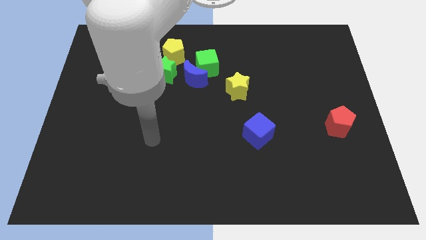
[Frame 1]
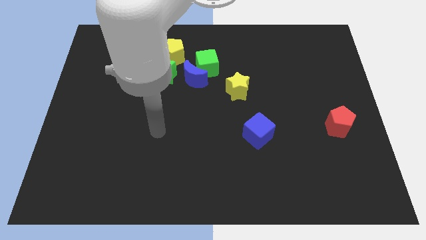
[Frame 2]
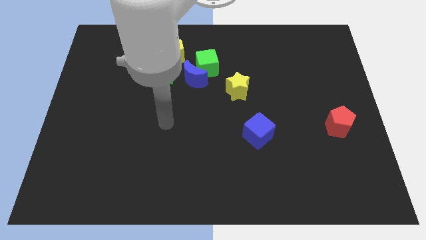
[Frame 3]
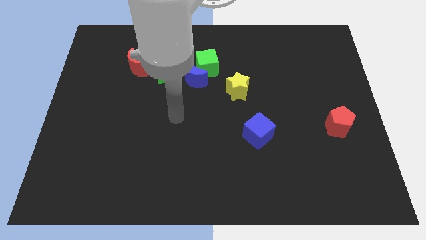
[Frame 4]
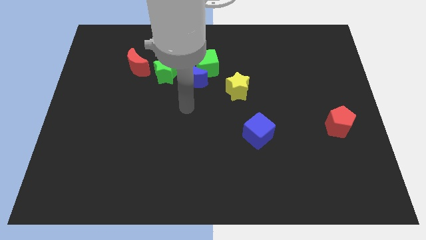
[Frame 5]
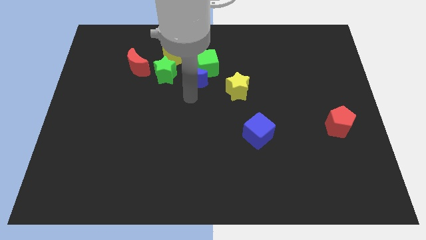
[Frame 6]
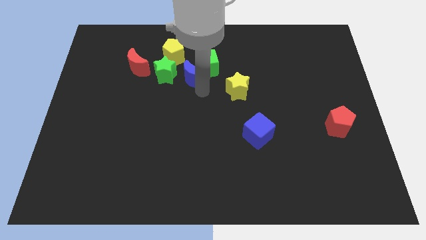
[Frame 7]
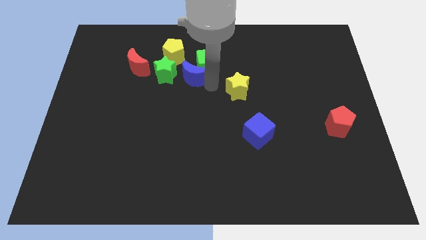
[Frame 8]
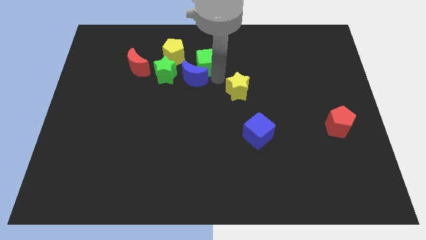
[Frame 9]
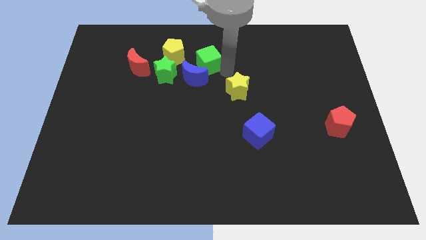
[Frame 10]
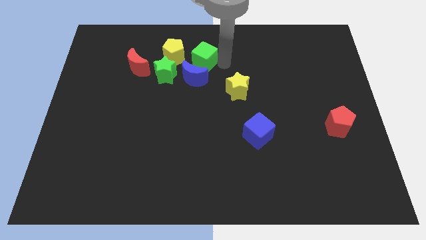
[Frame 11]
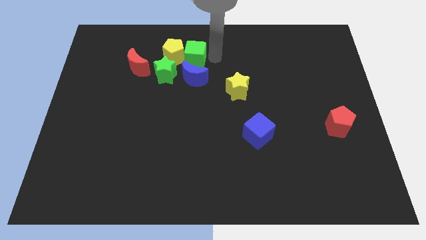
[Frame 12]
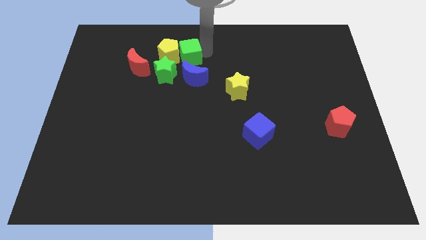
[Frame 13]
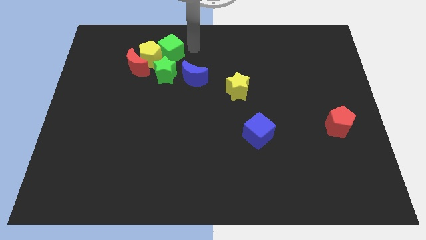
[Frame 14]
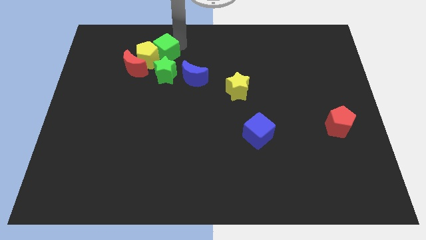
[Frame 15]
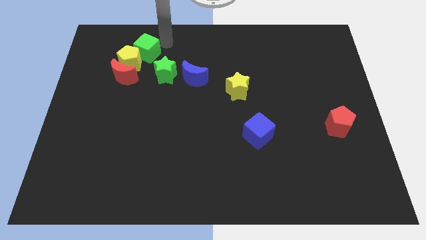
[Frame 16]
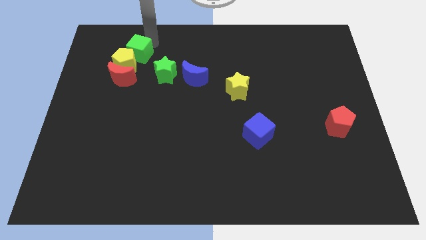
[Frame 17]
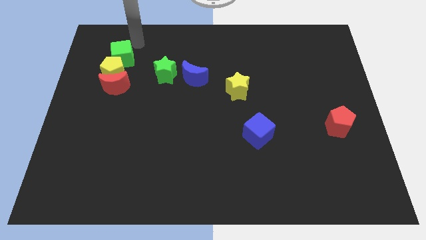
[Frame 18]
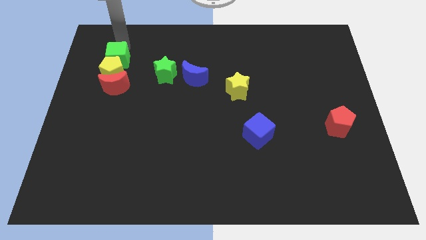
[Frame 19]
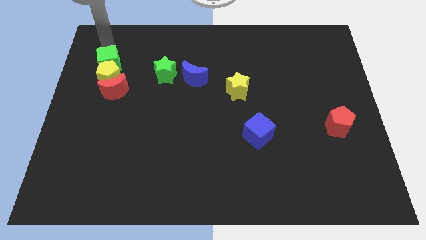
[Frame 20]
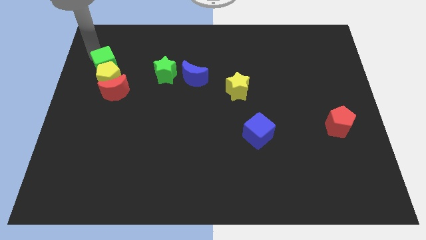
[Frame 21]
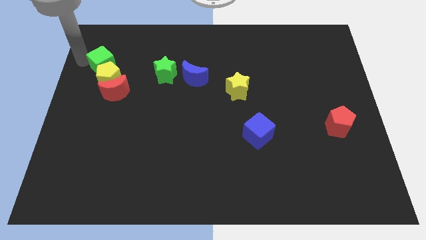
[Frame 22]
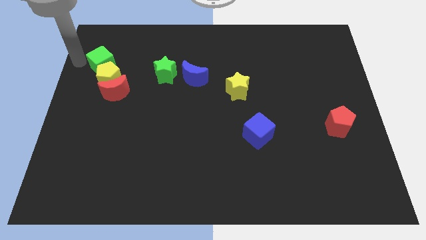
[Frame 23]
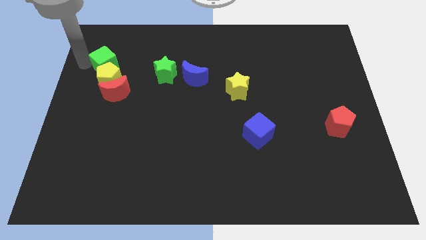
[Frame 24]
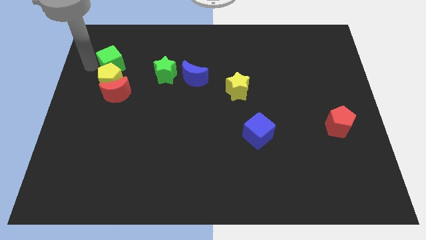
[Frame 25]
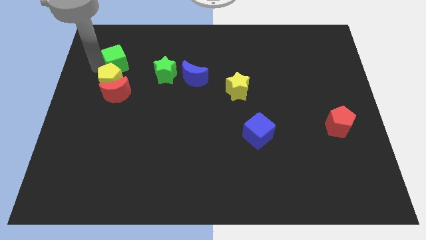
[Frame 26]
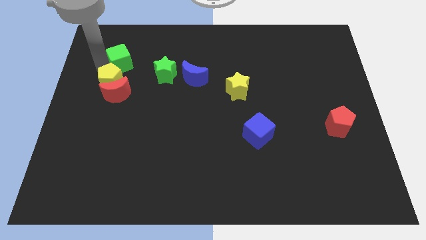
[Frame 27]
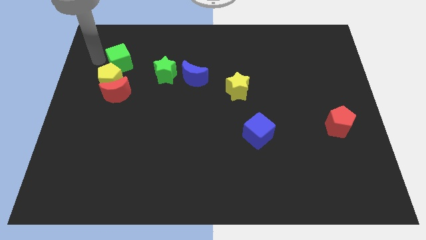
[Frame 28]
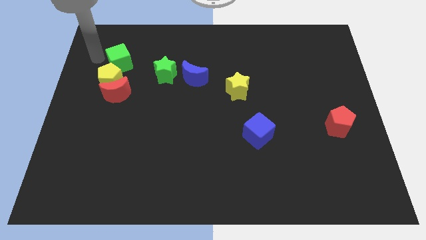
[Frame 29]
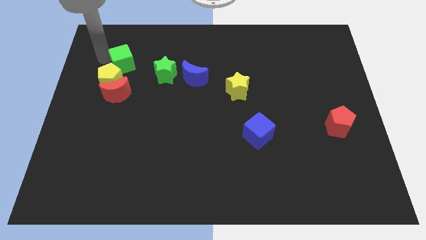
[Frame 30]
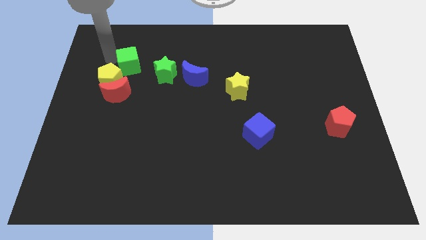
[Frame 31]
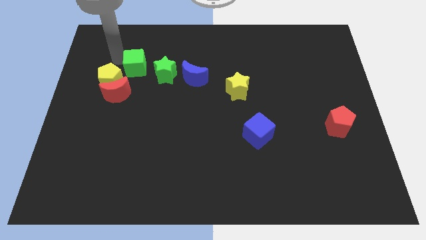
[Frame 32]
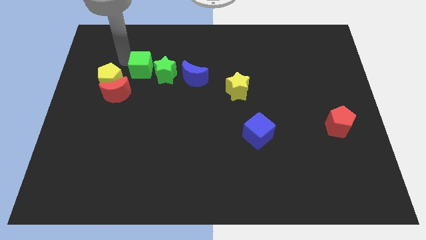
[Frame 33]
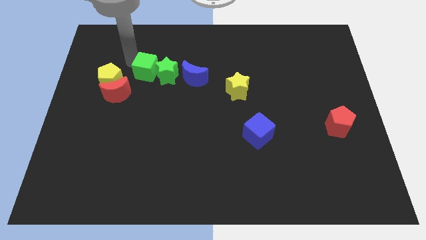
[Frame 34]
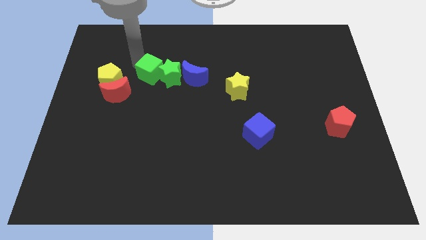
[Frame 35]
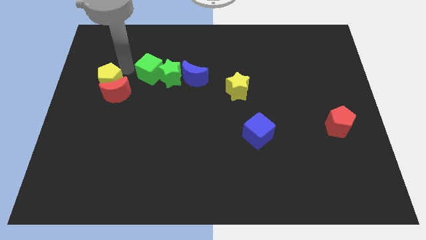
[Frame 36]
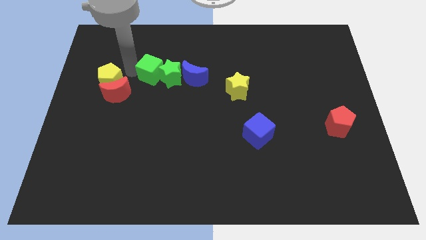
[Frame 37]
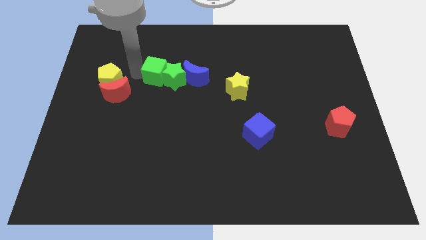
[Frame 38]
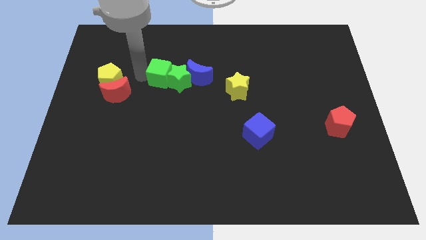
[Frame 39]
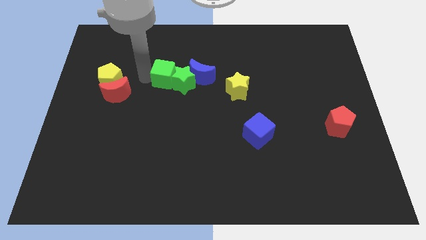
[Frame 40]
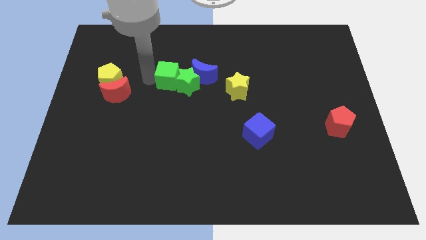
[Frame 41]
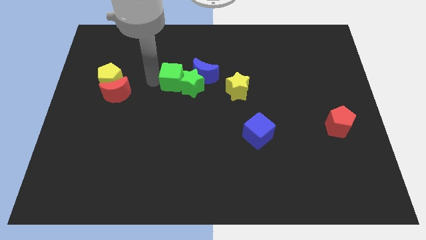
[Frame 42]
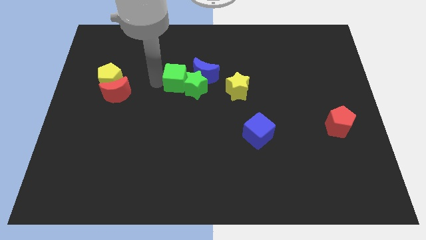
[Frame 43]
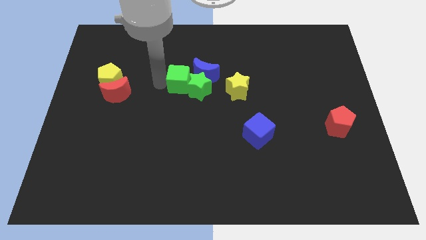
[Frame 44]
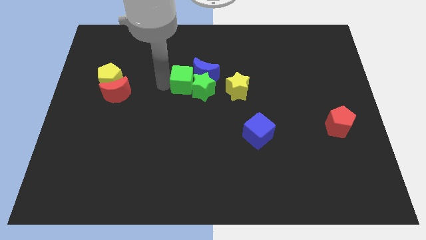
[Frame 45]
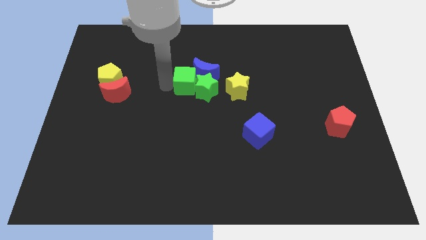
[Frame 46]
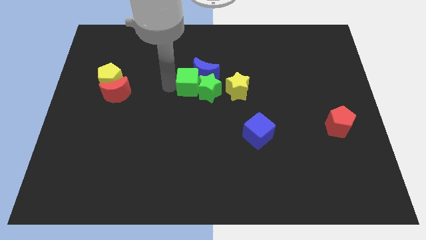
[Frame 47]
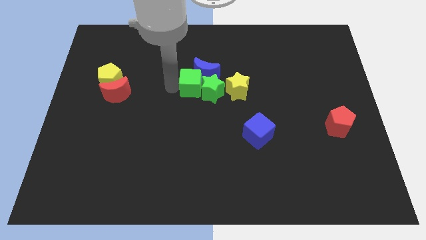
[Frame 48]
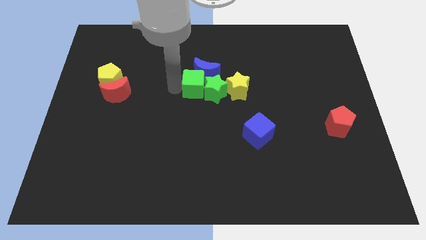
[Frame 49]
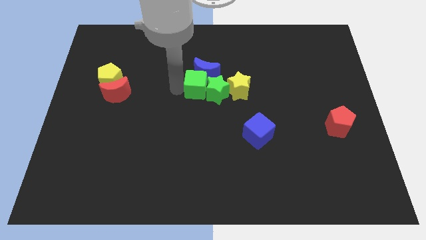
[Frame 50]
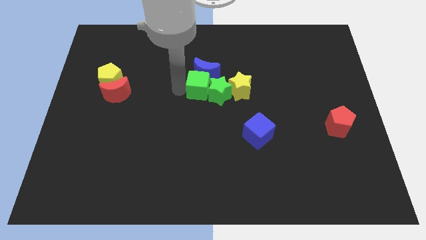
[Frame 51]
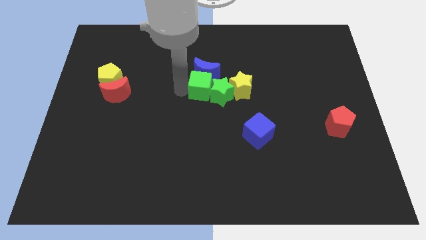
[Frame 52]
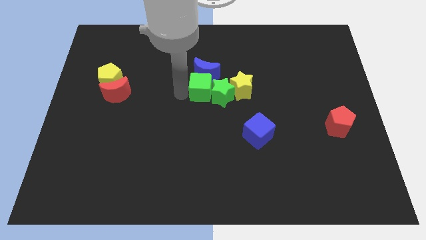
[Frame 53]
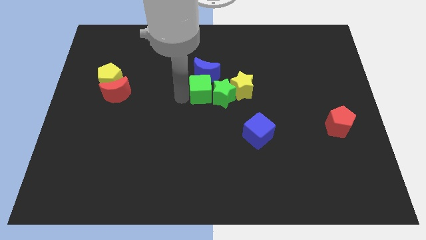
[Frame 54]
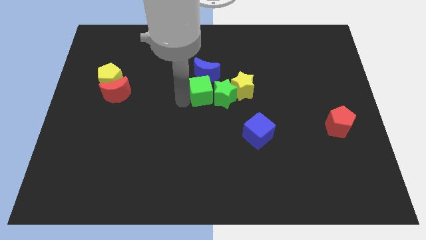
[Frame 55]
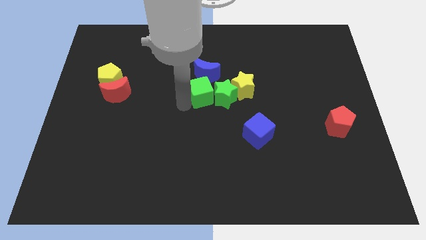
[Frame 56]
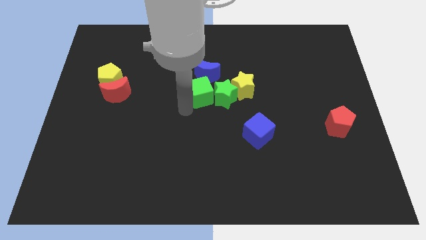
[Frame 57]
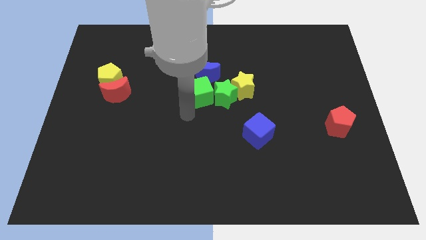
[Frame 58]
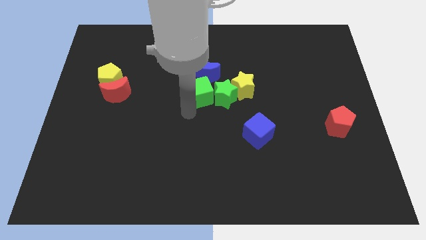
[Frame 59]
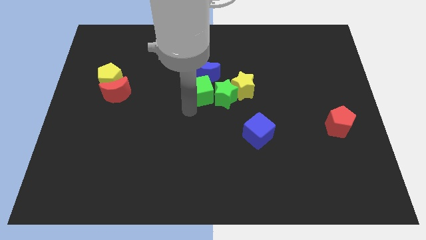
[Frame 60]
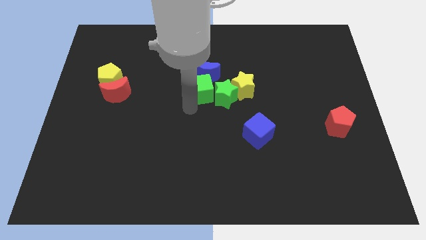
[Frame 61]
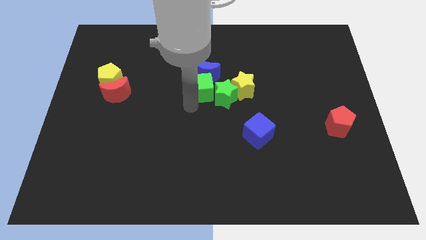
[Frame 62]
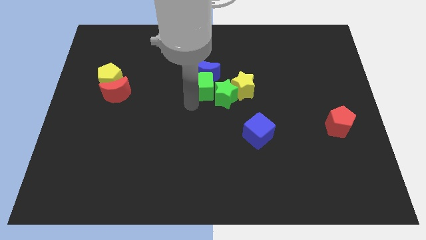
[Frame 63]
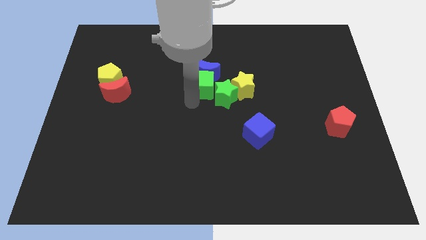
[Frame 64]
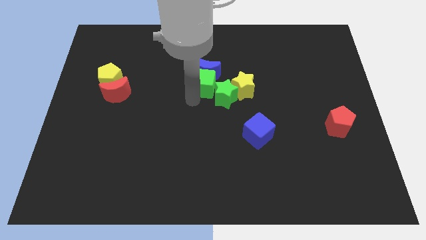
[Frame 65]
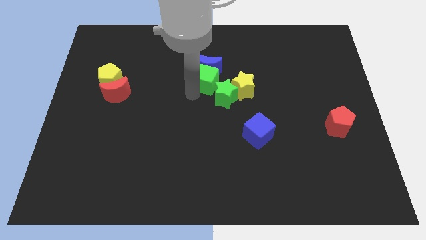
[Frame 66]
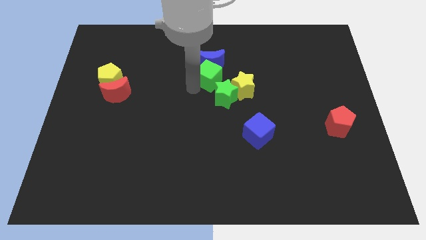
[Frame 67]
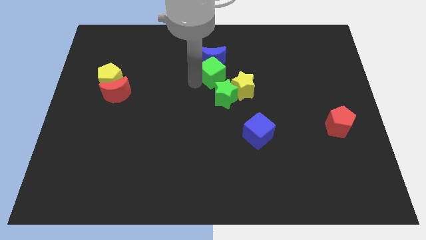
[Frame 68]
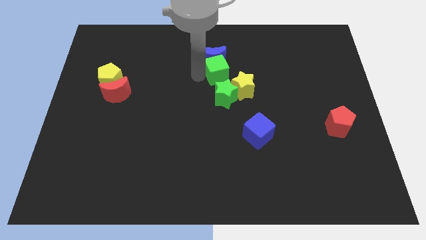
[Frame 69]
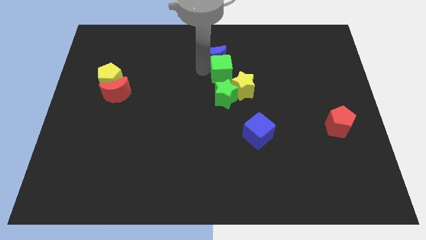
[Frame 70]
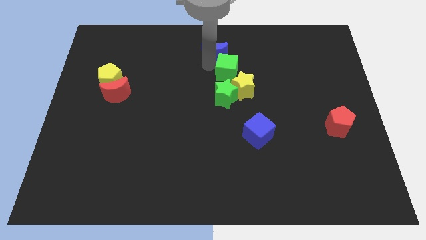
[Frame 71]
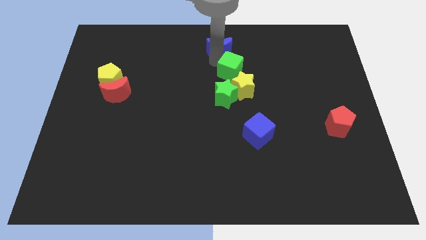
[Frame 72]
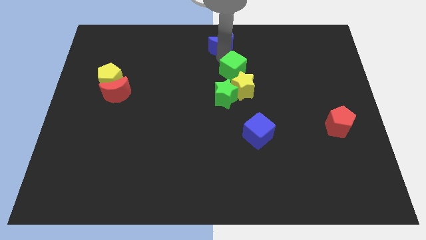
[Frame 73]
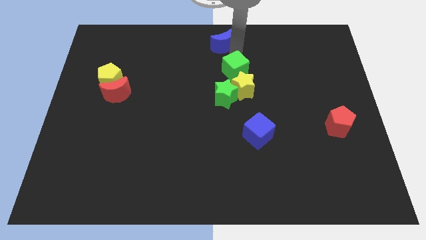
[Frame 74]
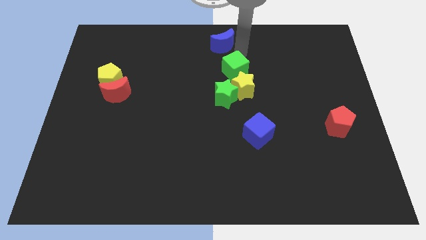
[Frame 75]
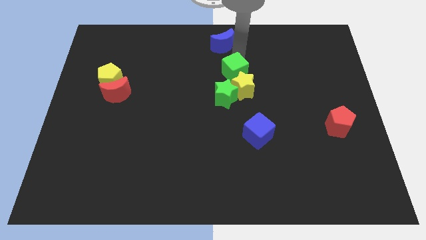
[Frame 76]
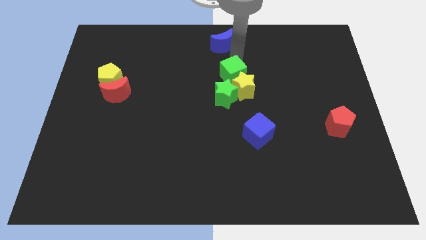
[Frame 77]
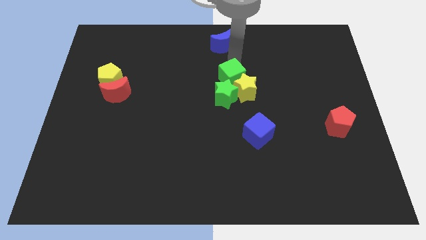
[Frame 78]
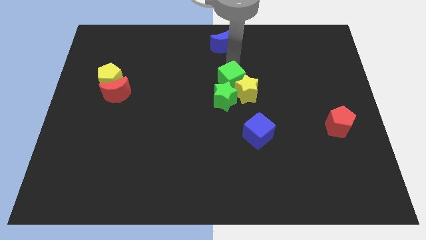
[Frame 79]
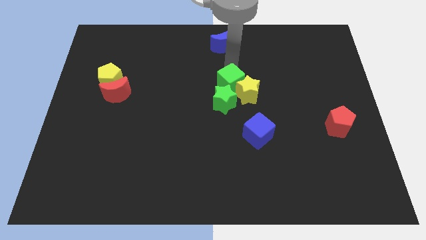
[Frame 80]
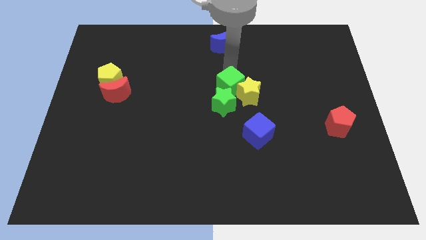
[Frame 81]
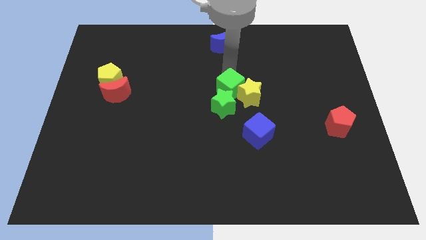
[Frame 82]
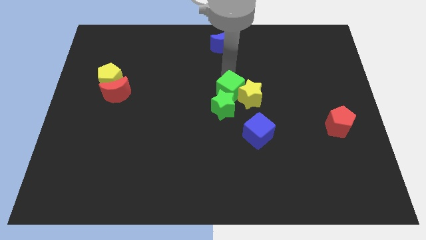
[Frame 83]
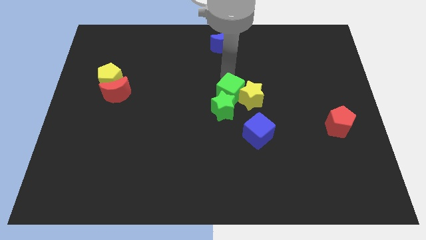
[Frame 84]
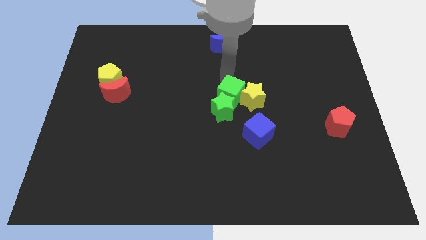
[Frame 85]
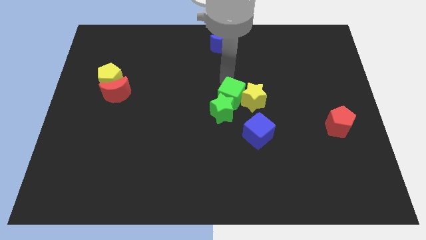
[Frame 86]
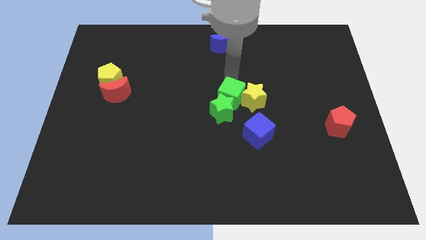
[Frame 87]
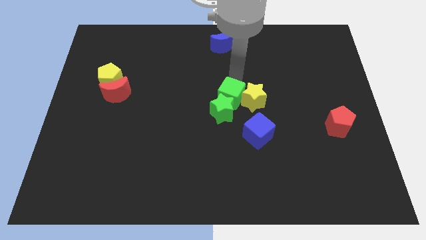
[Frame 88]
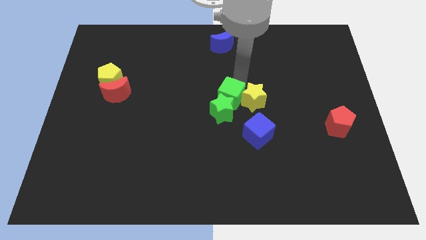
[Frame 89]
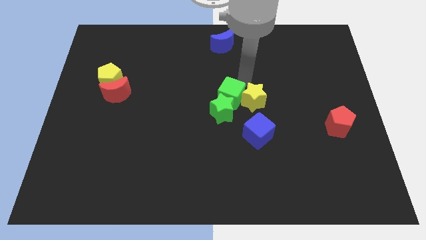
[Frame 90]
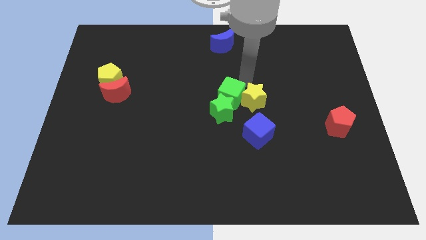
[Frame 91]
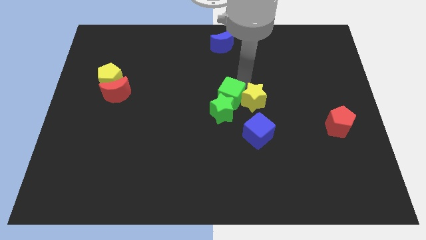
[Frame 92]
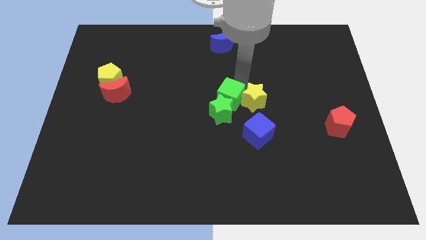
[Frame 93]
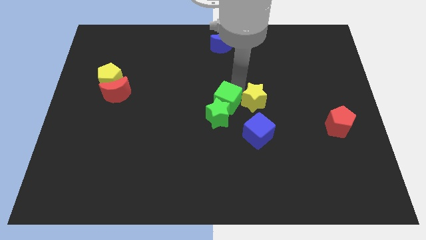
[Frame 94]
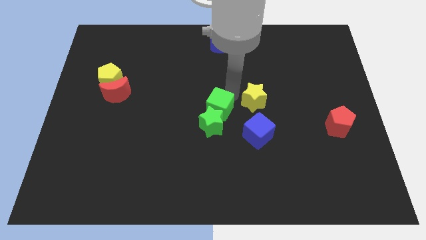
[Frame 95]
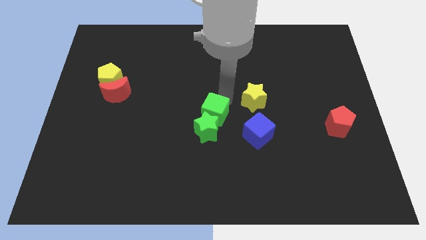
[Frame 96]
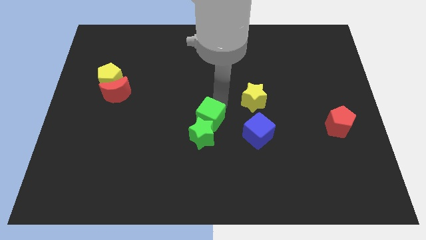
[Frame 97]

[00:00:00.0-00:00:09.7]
push the green cube to the left of the blue cube
